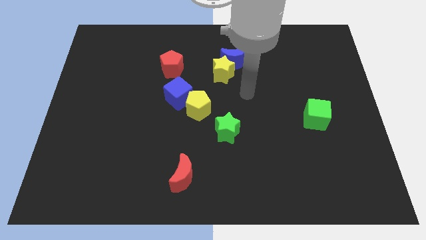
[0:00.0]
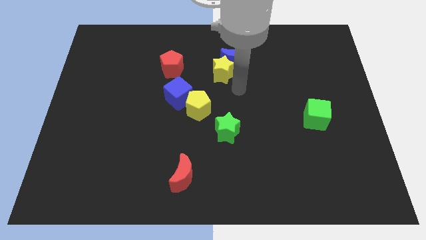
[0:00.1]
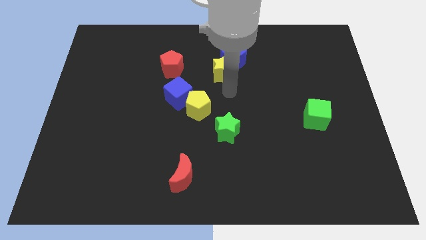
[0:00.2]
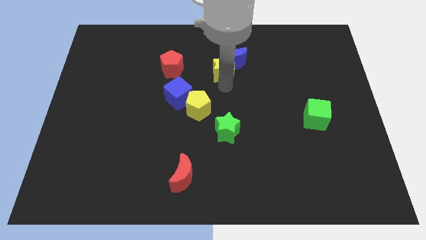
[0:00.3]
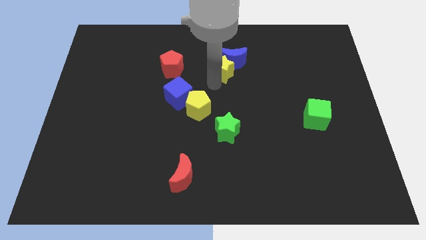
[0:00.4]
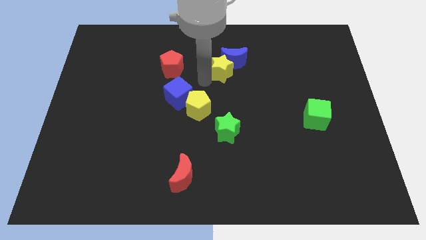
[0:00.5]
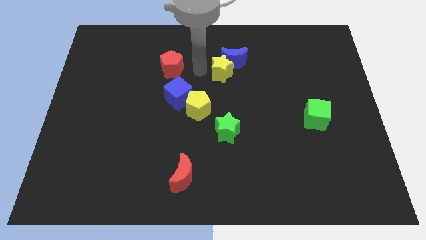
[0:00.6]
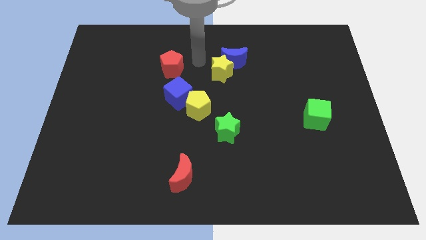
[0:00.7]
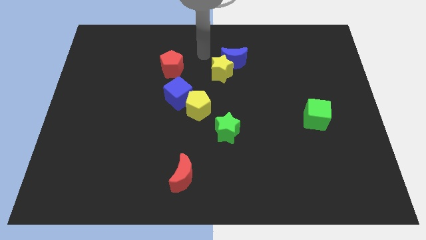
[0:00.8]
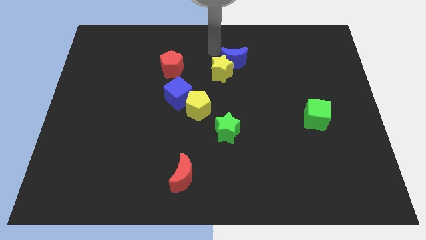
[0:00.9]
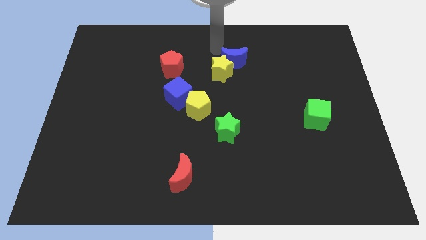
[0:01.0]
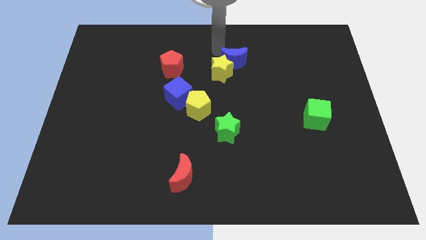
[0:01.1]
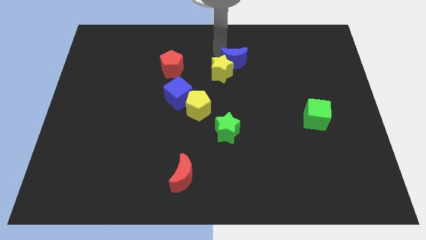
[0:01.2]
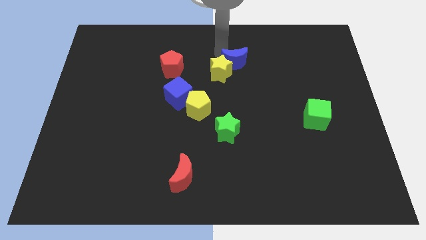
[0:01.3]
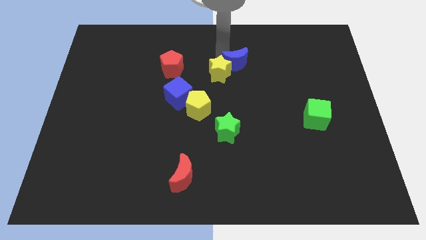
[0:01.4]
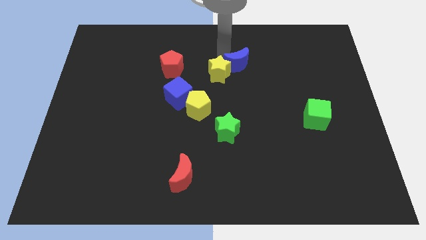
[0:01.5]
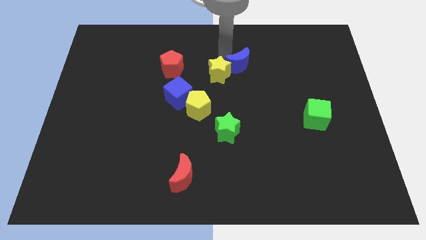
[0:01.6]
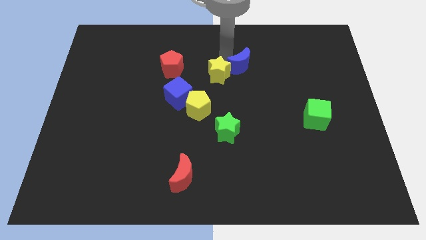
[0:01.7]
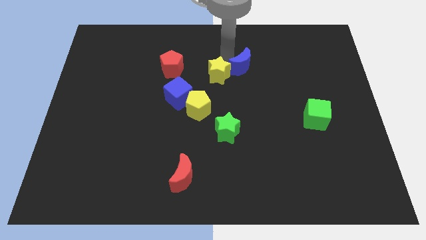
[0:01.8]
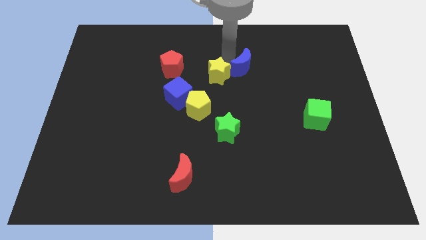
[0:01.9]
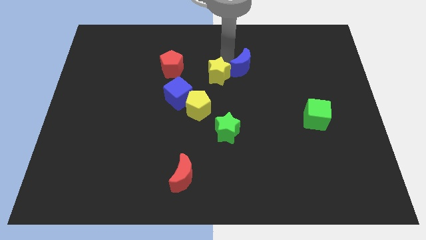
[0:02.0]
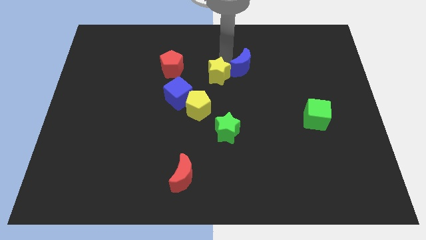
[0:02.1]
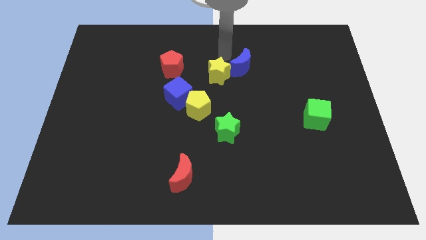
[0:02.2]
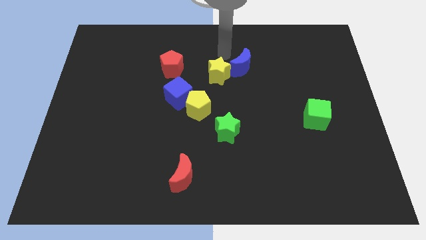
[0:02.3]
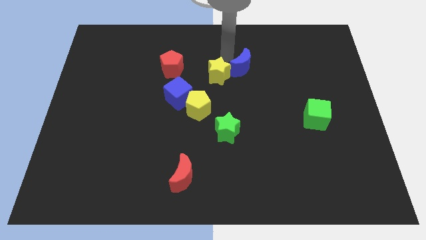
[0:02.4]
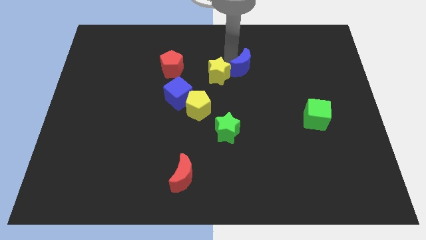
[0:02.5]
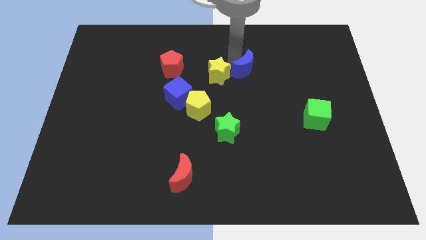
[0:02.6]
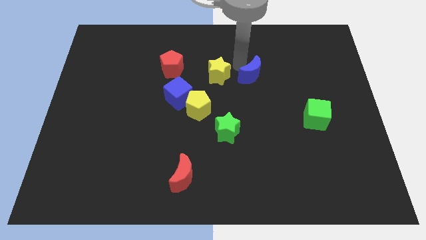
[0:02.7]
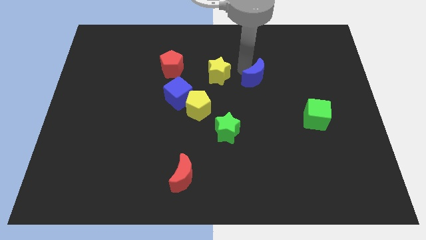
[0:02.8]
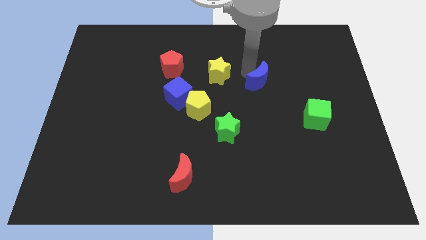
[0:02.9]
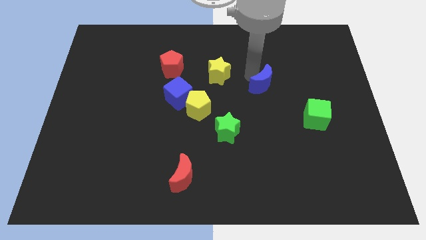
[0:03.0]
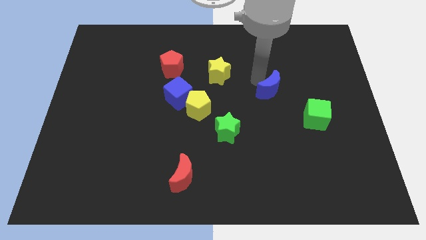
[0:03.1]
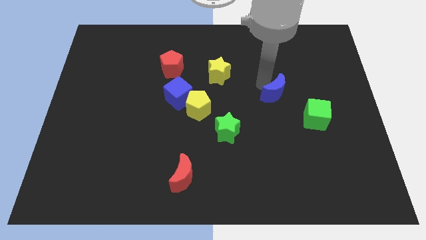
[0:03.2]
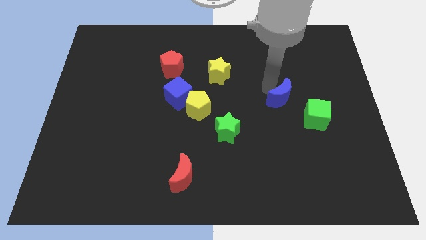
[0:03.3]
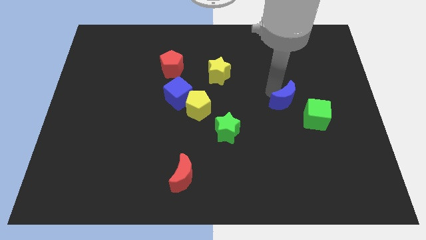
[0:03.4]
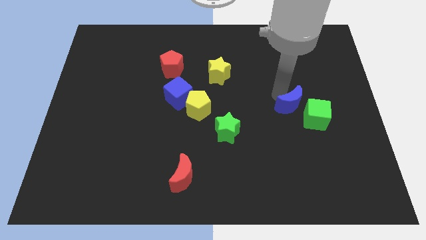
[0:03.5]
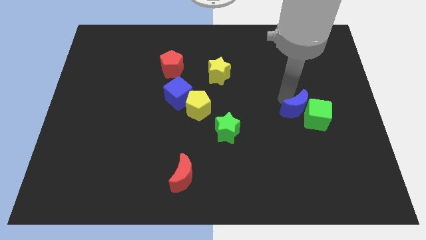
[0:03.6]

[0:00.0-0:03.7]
push the blue moon diagonally downwards and right

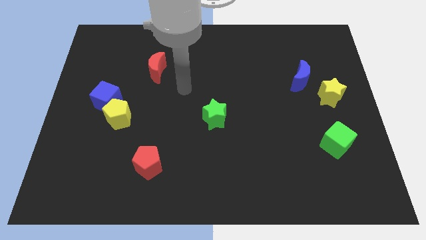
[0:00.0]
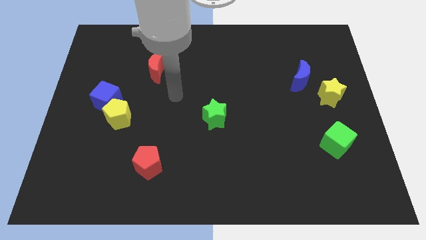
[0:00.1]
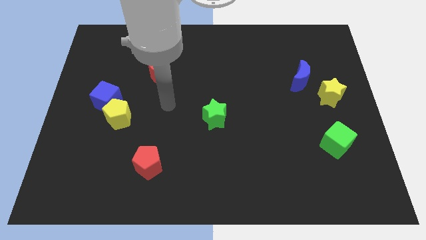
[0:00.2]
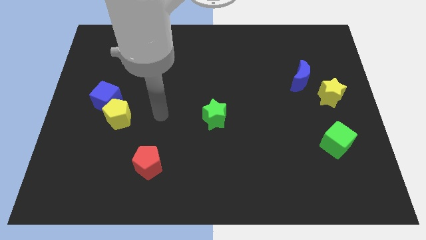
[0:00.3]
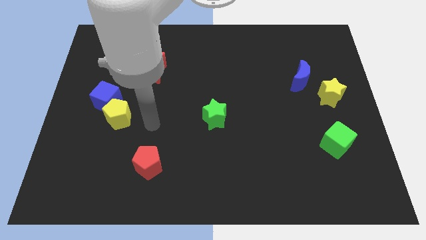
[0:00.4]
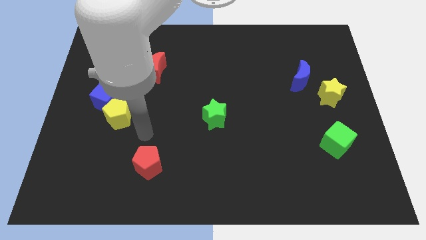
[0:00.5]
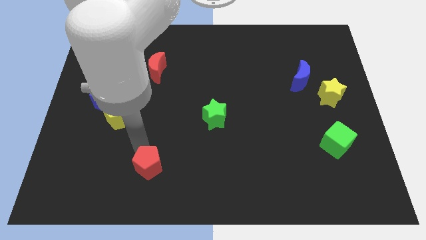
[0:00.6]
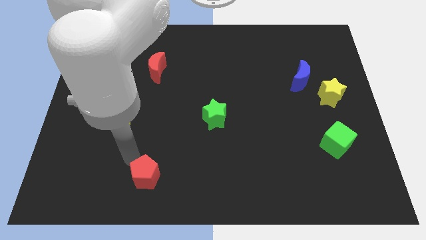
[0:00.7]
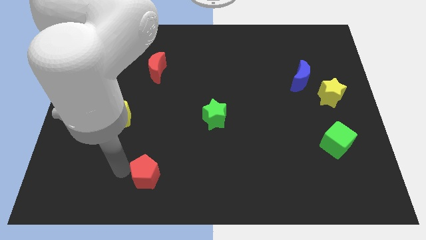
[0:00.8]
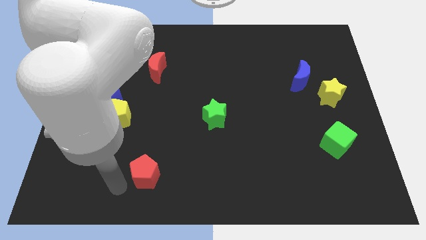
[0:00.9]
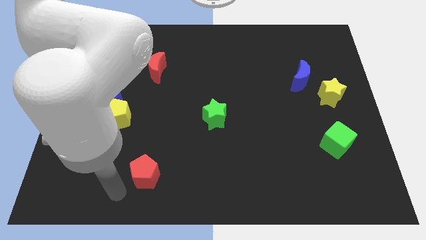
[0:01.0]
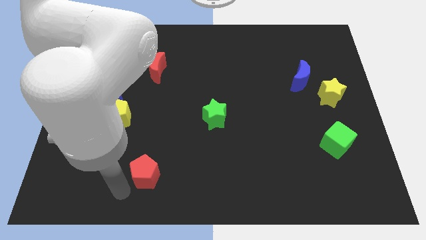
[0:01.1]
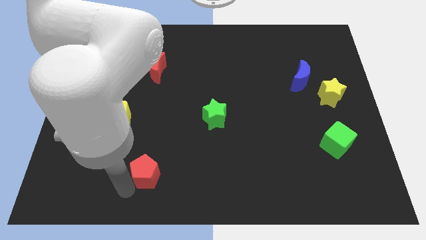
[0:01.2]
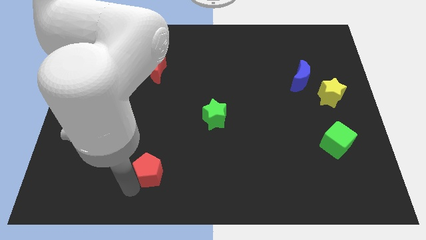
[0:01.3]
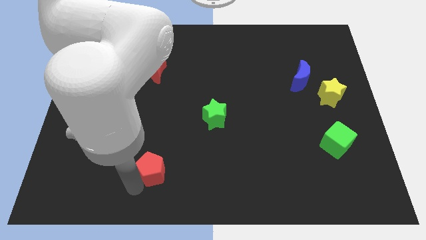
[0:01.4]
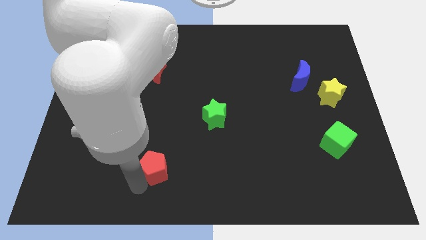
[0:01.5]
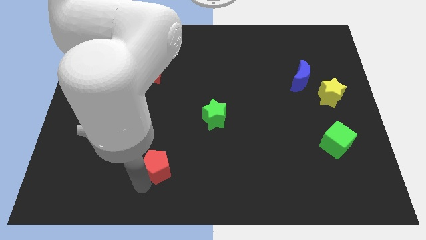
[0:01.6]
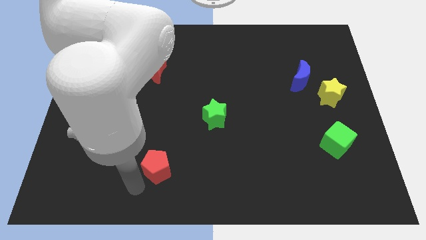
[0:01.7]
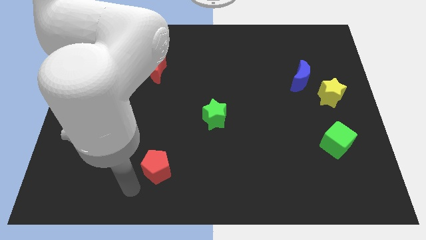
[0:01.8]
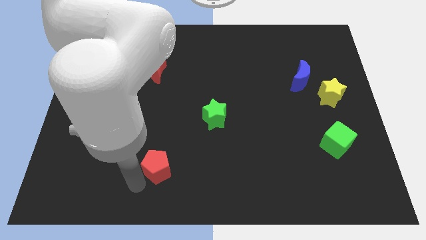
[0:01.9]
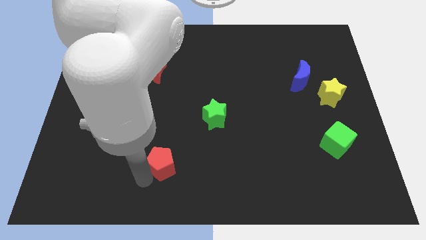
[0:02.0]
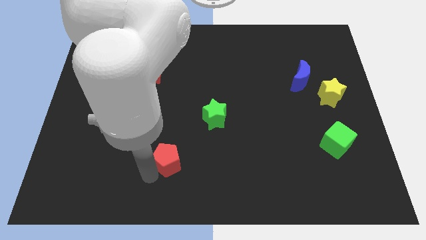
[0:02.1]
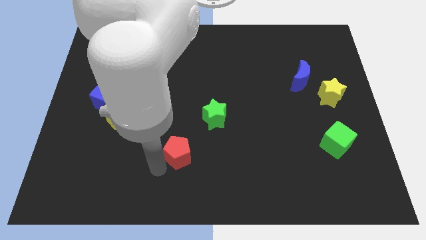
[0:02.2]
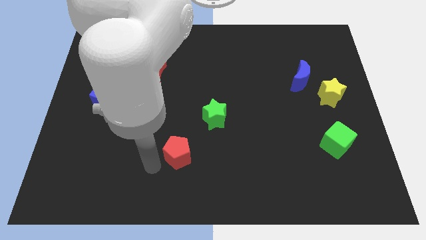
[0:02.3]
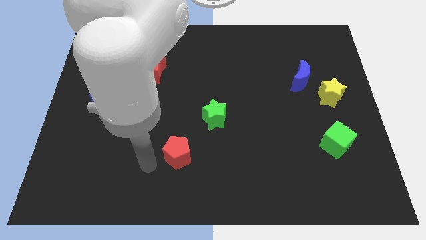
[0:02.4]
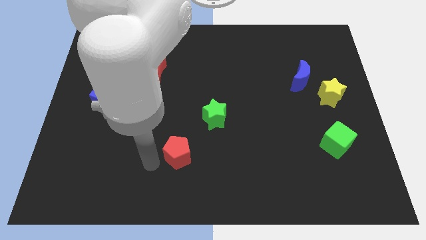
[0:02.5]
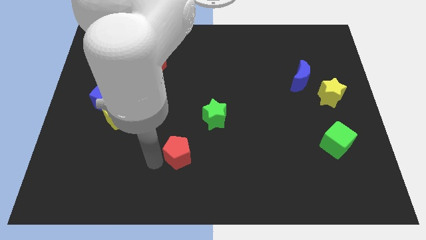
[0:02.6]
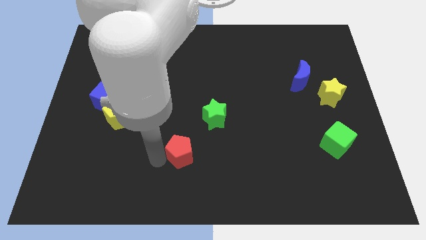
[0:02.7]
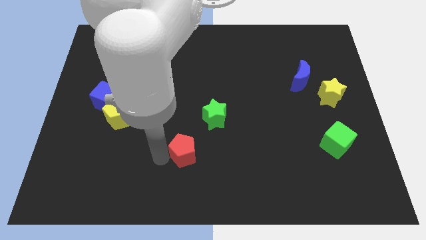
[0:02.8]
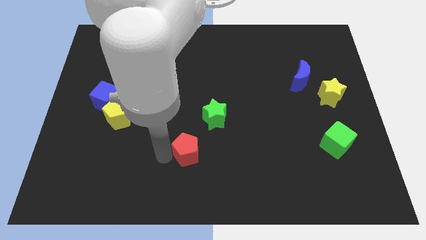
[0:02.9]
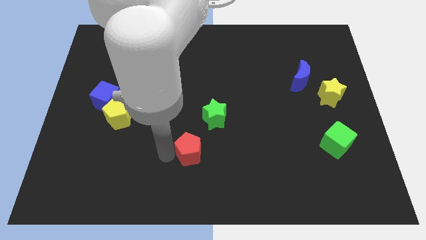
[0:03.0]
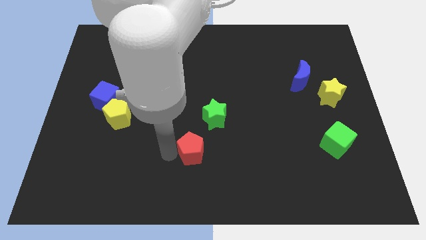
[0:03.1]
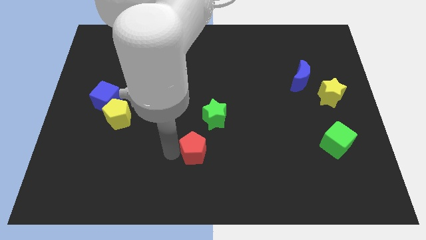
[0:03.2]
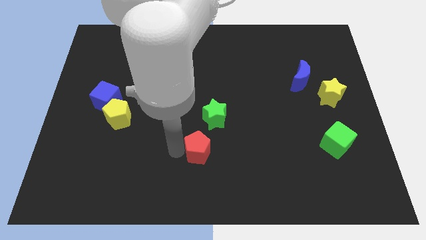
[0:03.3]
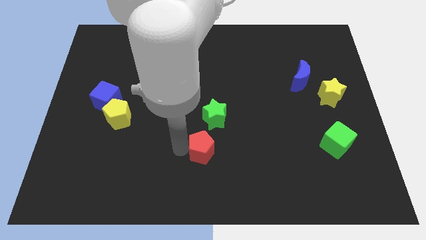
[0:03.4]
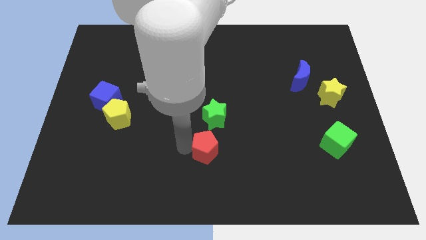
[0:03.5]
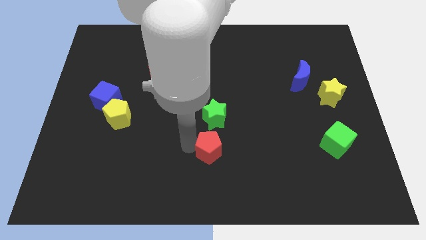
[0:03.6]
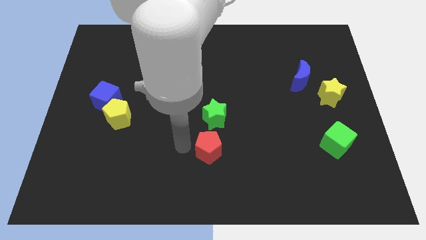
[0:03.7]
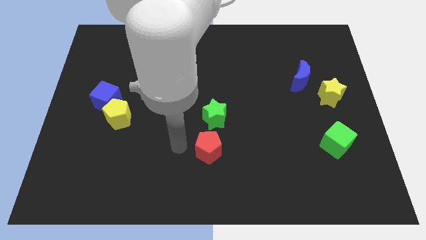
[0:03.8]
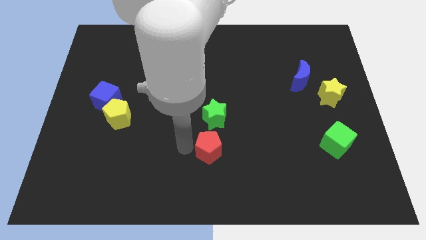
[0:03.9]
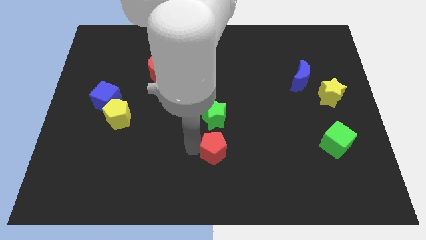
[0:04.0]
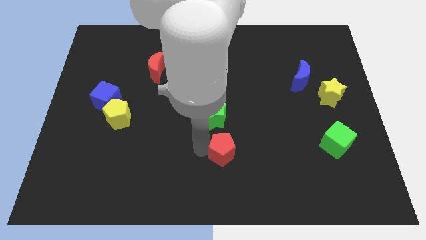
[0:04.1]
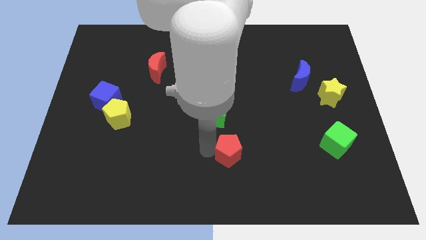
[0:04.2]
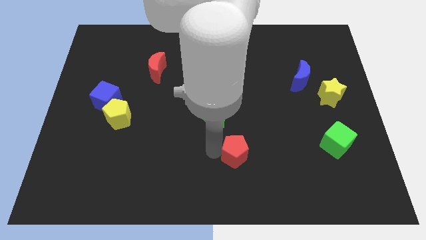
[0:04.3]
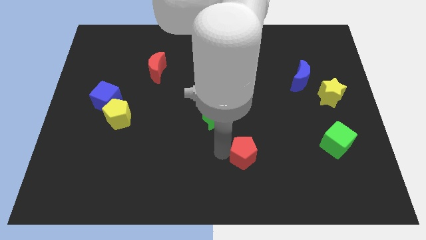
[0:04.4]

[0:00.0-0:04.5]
slide the red pentagon right

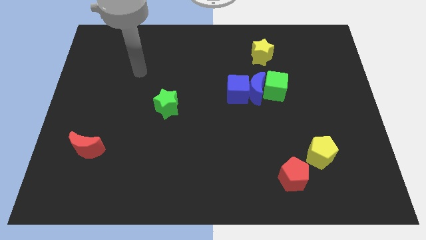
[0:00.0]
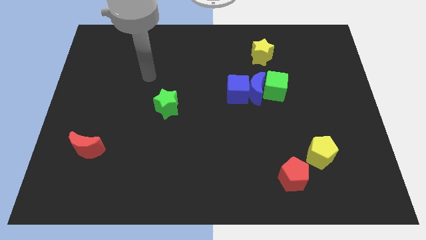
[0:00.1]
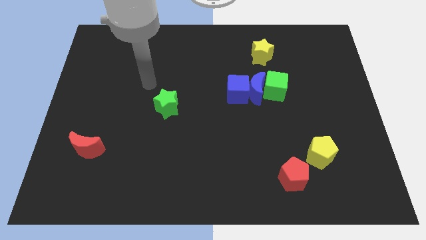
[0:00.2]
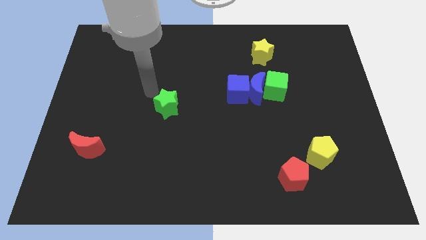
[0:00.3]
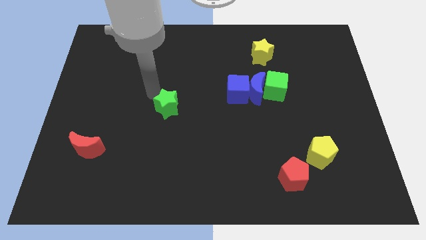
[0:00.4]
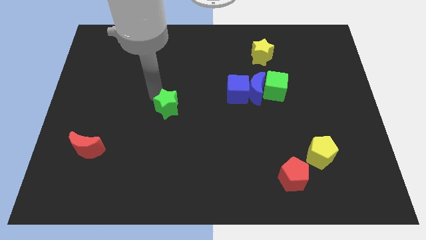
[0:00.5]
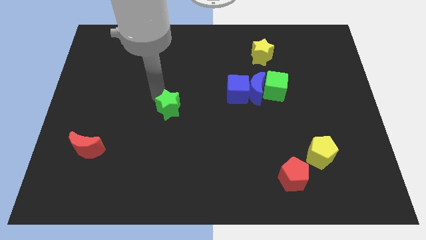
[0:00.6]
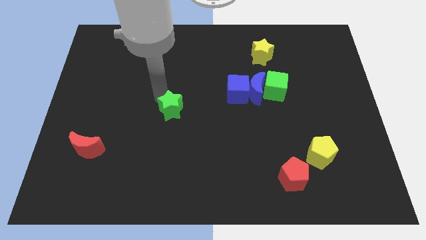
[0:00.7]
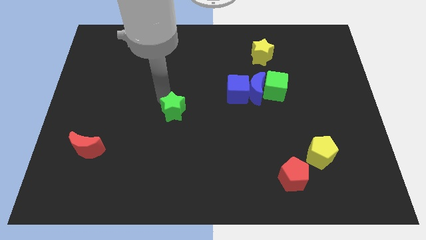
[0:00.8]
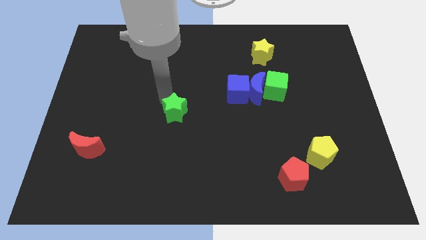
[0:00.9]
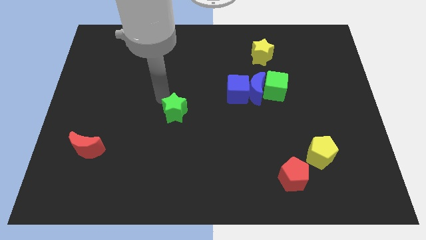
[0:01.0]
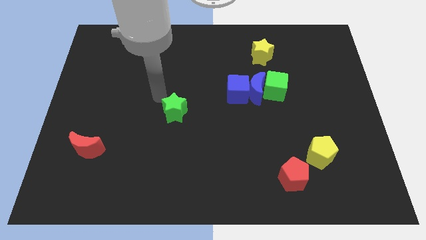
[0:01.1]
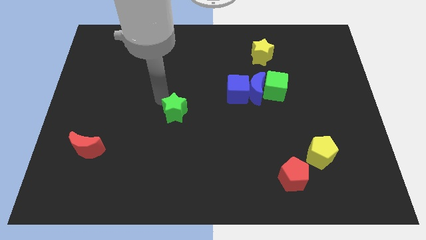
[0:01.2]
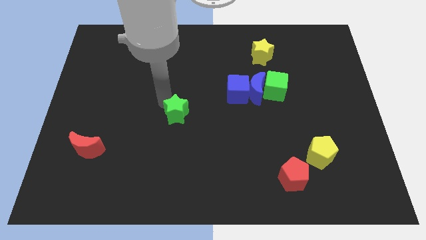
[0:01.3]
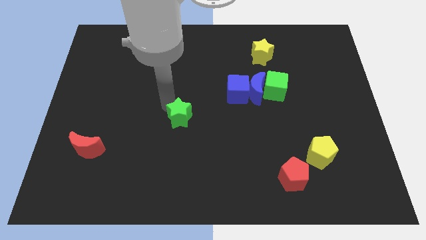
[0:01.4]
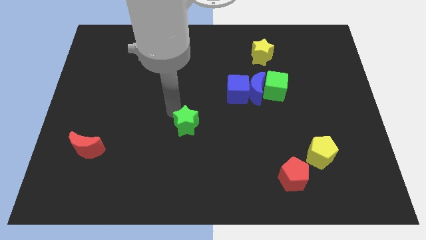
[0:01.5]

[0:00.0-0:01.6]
move the green star down and then right slightly
